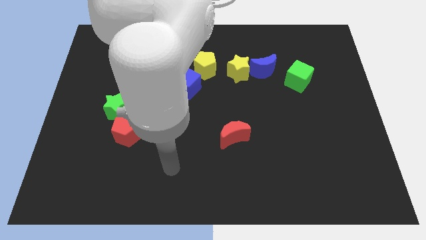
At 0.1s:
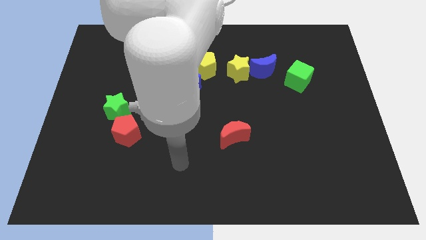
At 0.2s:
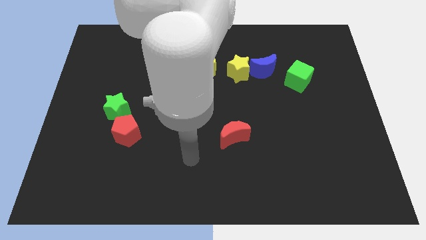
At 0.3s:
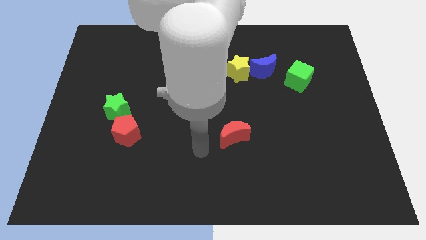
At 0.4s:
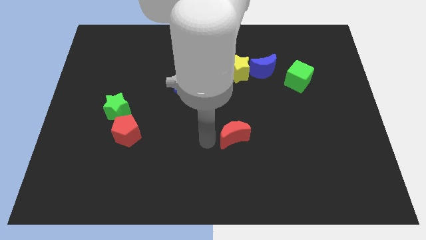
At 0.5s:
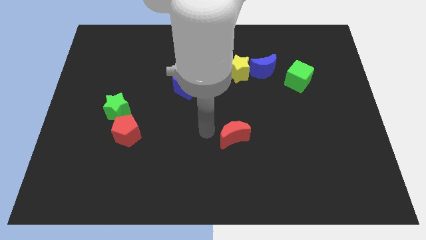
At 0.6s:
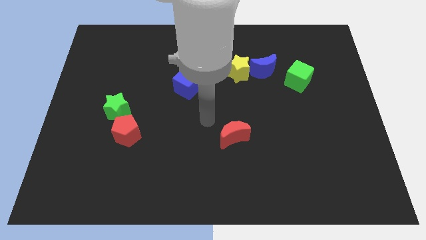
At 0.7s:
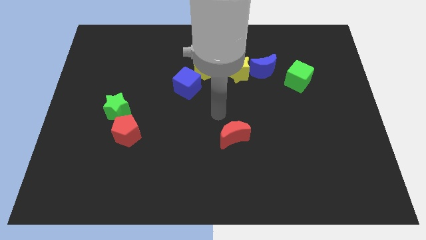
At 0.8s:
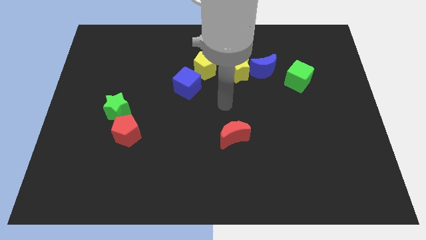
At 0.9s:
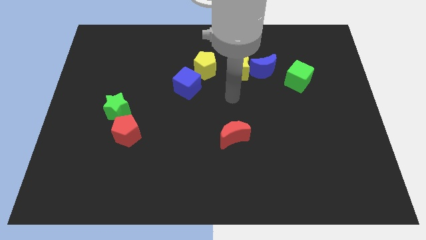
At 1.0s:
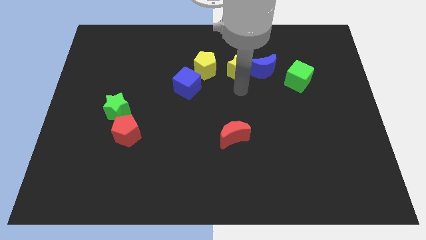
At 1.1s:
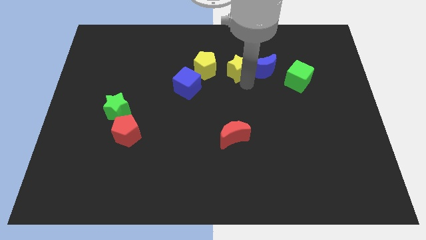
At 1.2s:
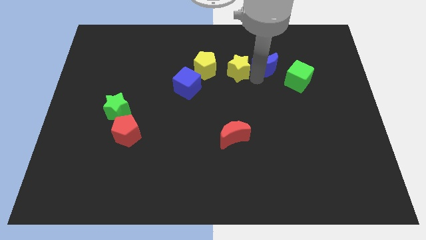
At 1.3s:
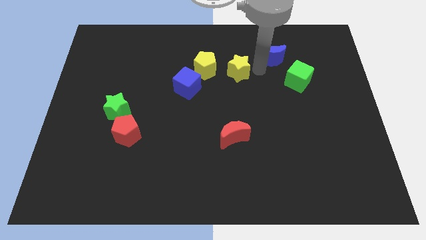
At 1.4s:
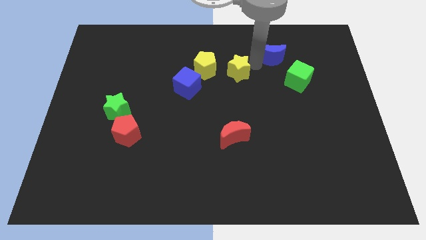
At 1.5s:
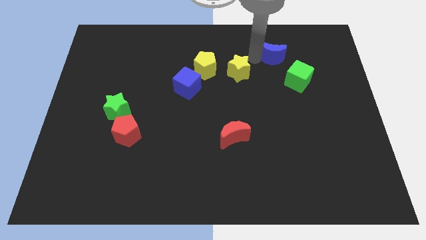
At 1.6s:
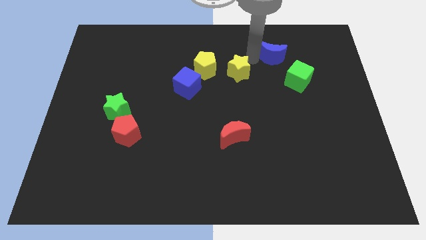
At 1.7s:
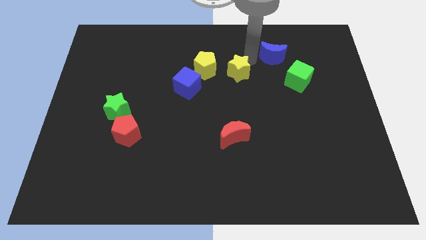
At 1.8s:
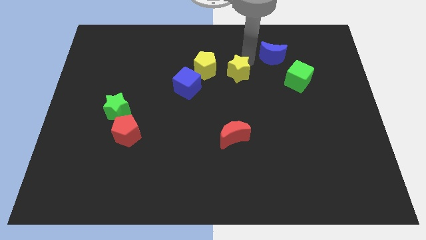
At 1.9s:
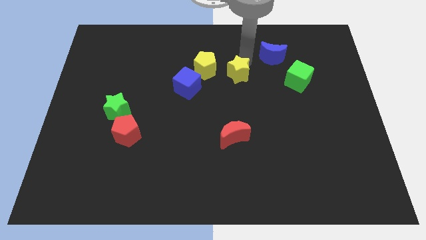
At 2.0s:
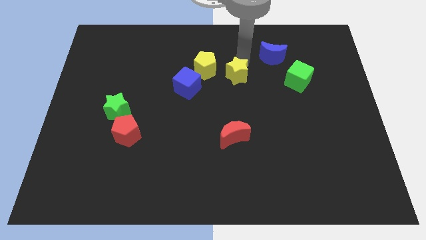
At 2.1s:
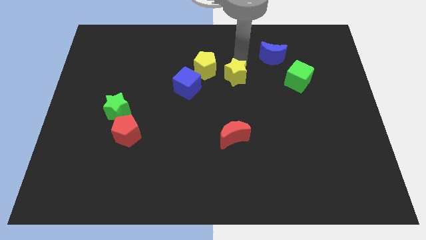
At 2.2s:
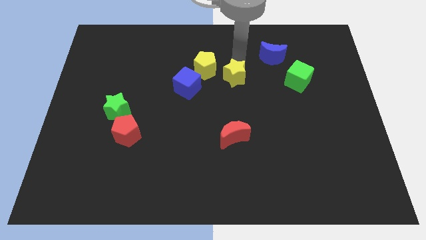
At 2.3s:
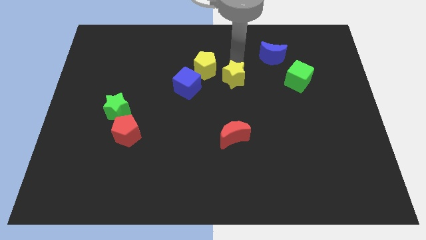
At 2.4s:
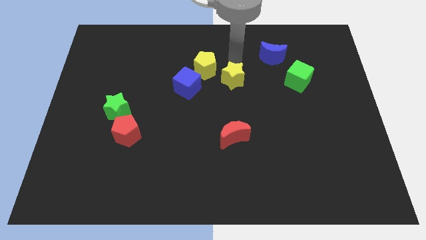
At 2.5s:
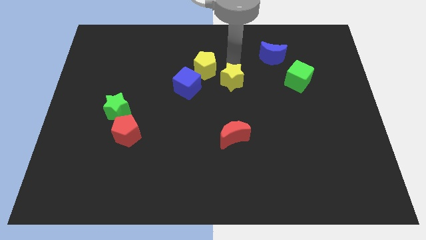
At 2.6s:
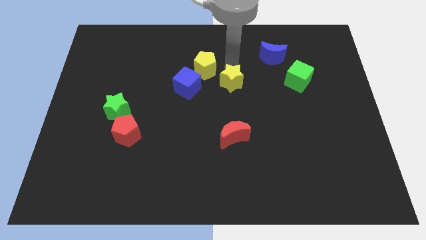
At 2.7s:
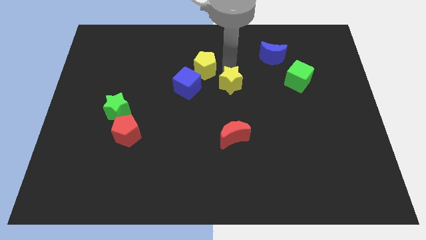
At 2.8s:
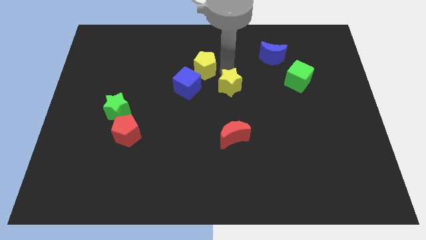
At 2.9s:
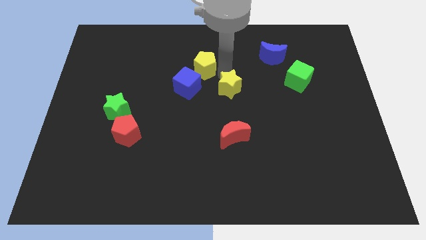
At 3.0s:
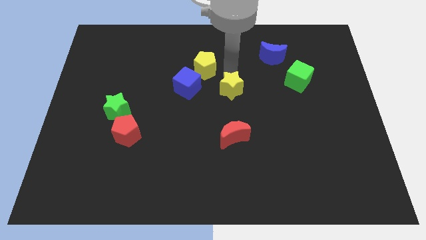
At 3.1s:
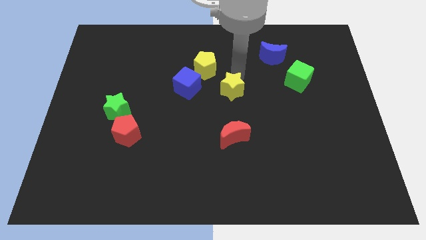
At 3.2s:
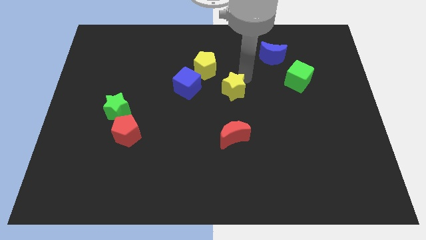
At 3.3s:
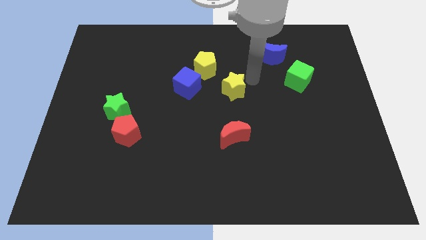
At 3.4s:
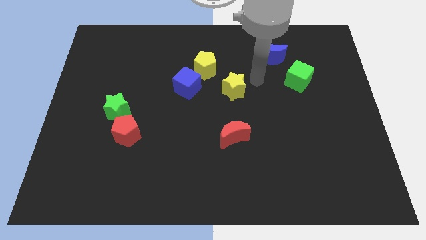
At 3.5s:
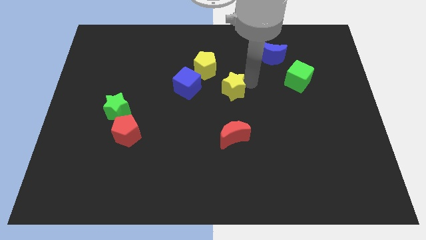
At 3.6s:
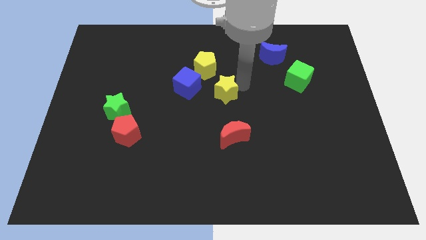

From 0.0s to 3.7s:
slide the yellow star slightly down and then to the left

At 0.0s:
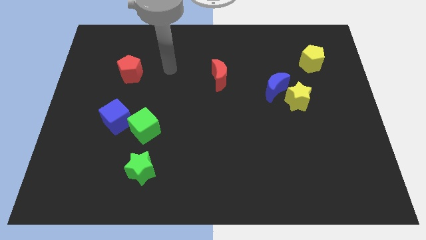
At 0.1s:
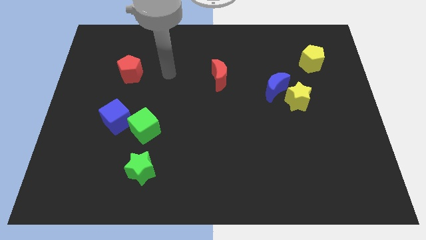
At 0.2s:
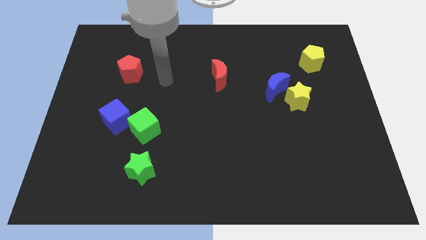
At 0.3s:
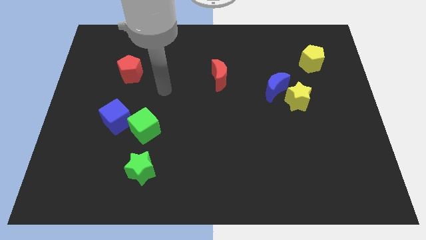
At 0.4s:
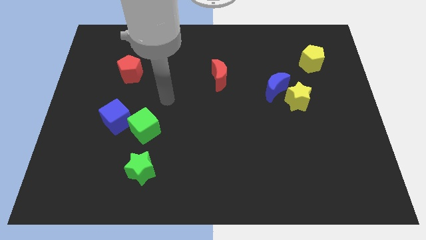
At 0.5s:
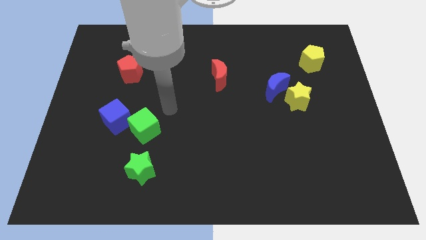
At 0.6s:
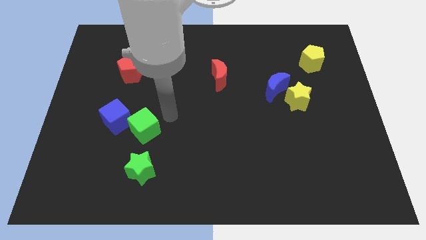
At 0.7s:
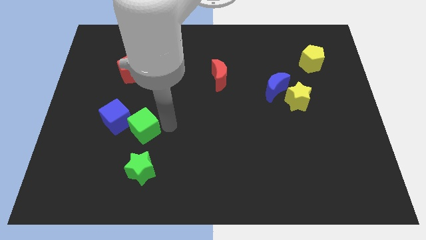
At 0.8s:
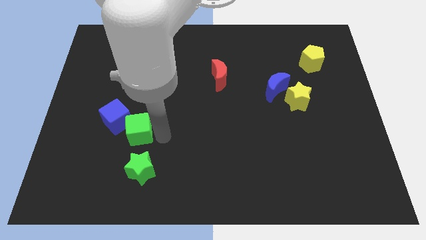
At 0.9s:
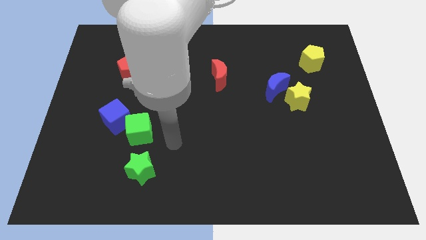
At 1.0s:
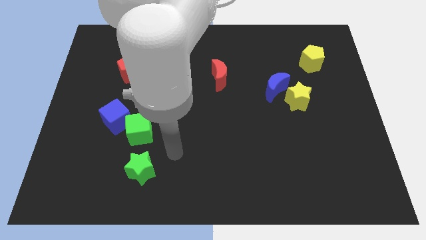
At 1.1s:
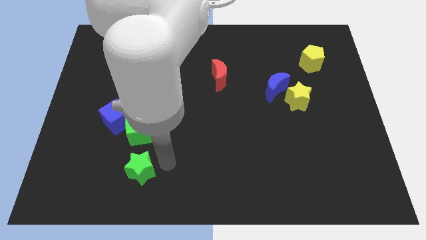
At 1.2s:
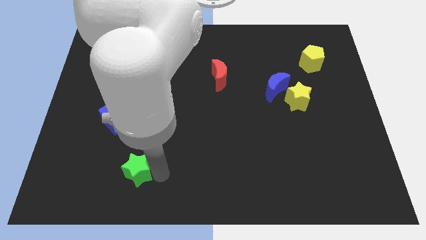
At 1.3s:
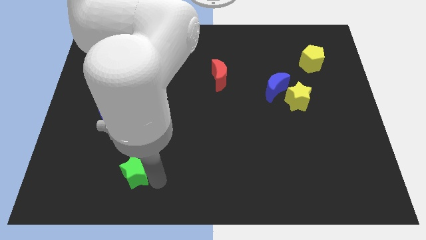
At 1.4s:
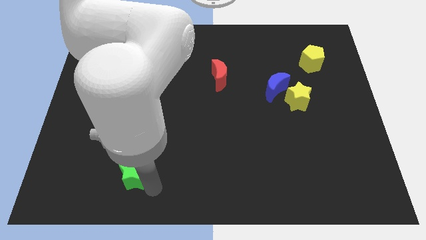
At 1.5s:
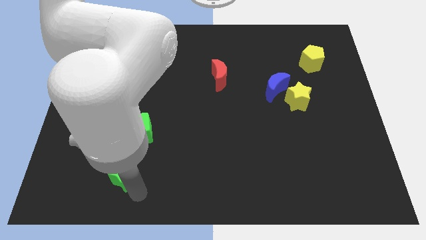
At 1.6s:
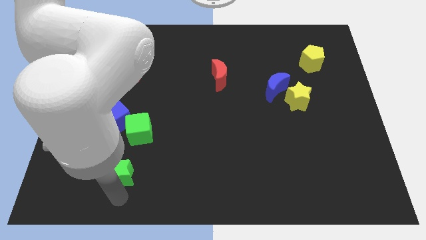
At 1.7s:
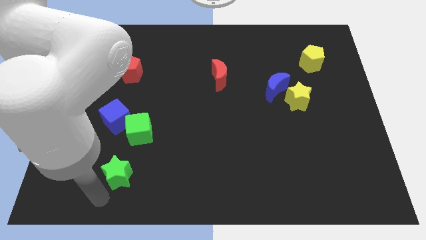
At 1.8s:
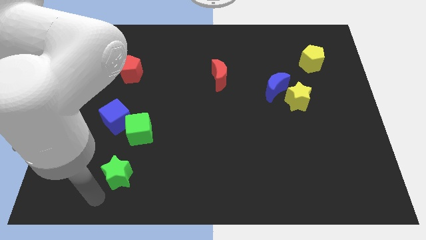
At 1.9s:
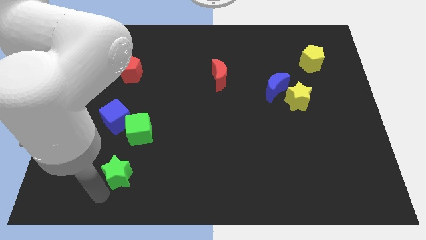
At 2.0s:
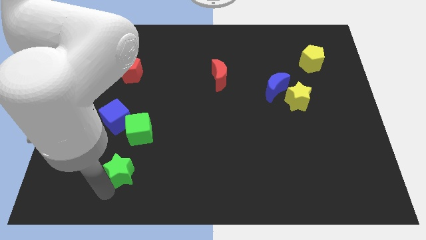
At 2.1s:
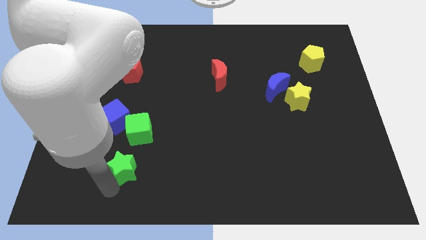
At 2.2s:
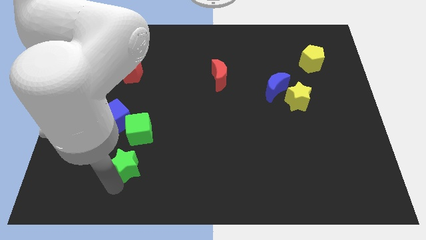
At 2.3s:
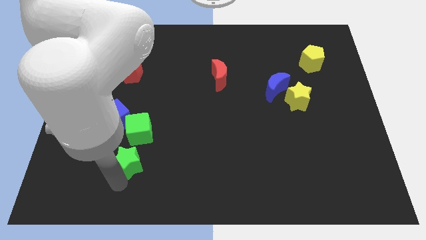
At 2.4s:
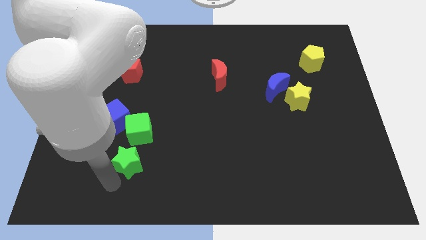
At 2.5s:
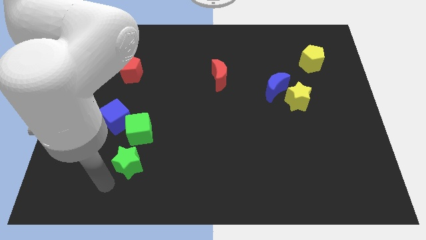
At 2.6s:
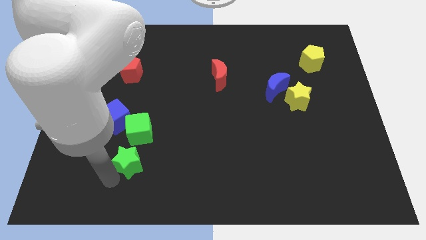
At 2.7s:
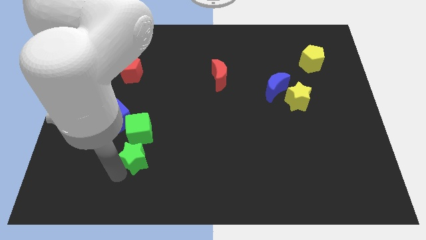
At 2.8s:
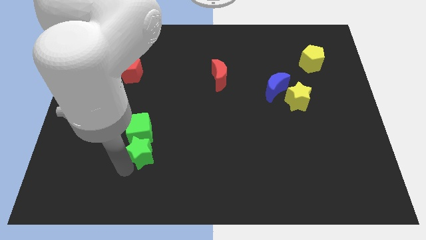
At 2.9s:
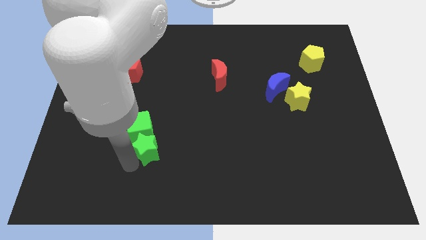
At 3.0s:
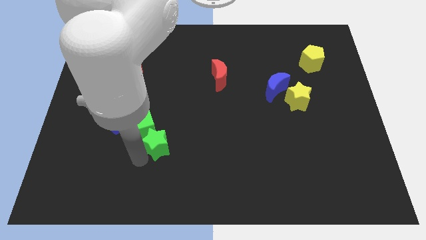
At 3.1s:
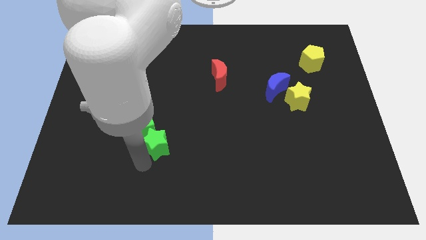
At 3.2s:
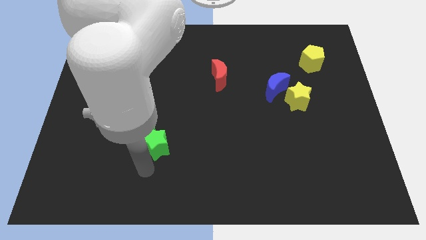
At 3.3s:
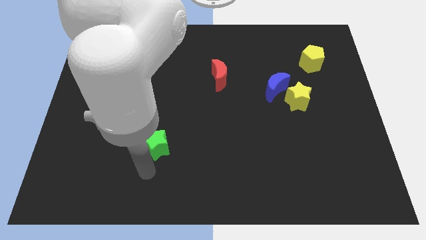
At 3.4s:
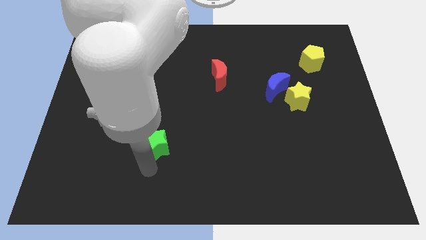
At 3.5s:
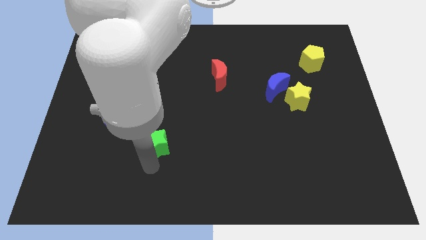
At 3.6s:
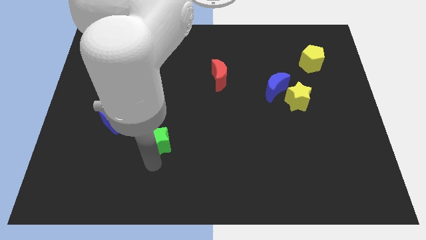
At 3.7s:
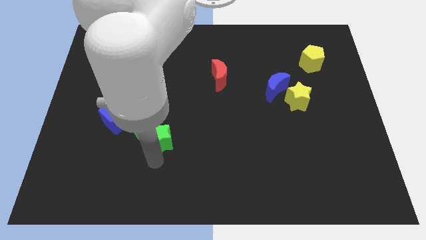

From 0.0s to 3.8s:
slightly push the green star upwards

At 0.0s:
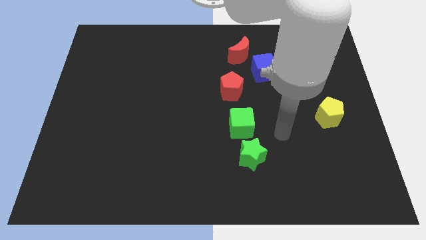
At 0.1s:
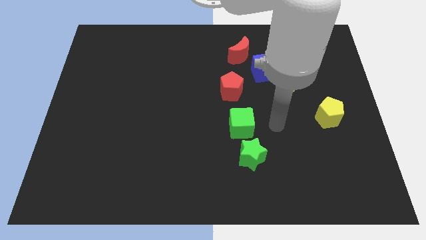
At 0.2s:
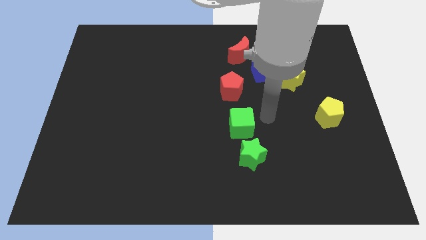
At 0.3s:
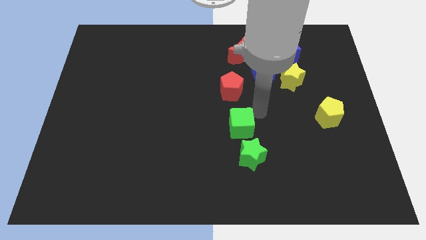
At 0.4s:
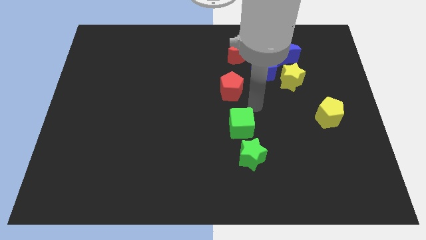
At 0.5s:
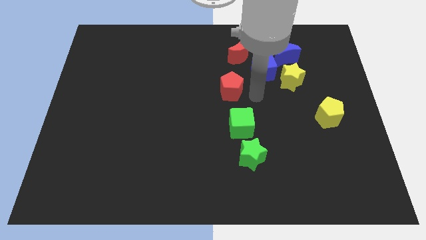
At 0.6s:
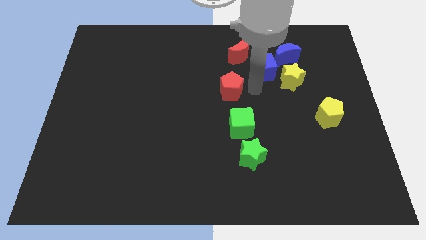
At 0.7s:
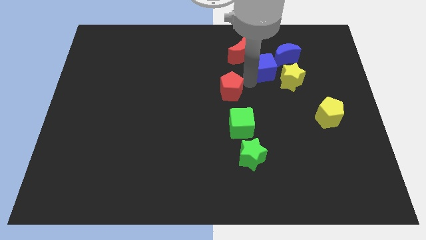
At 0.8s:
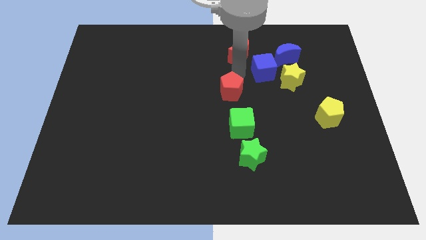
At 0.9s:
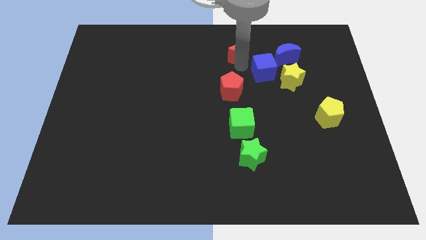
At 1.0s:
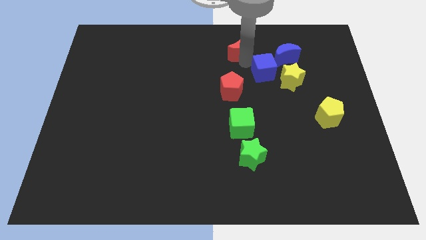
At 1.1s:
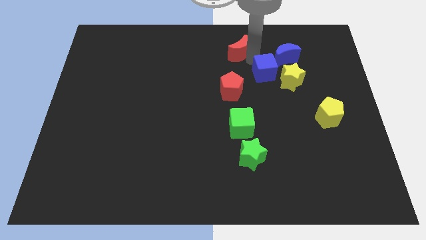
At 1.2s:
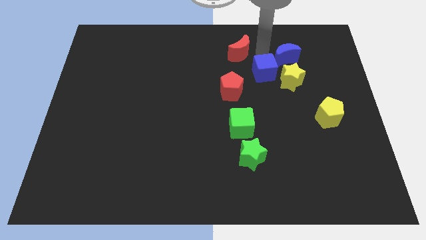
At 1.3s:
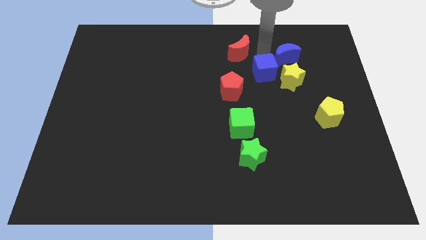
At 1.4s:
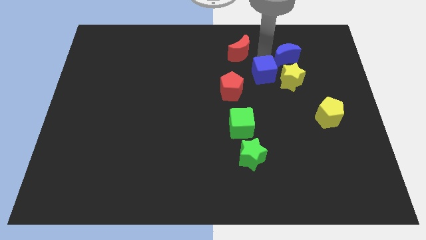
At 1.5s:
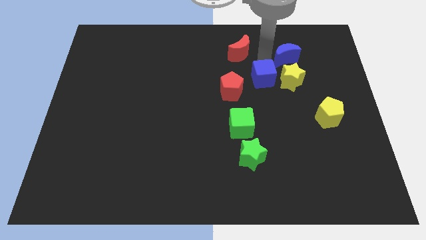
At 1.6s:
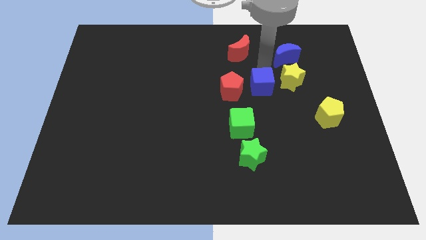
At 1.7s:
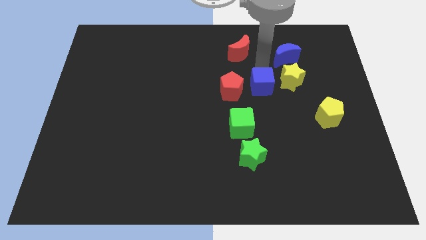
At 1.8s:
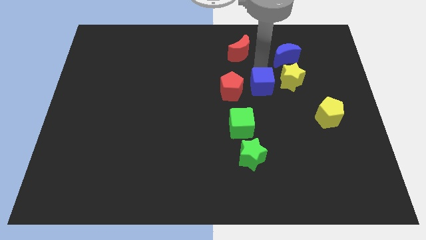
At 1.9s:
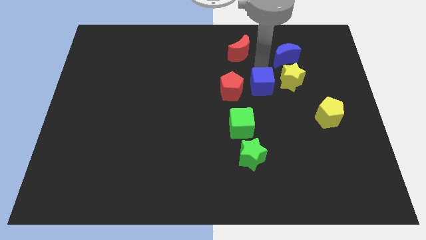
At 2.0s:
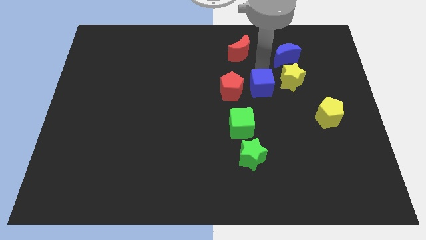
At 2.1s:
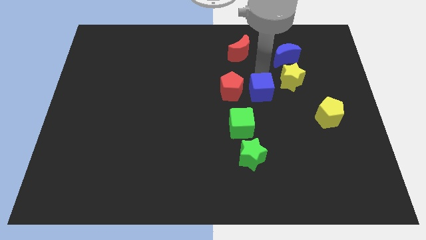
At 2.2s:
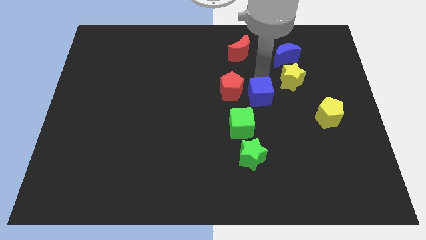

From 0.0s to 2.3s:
move the blue cube a little down
